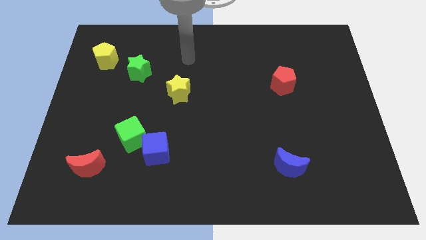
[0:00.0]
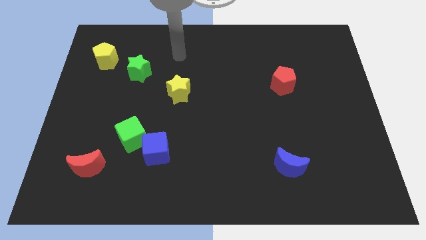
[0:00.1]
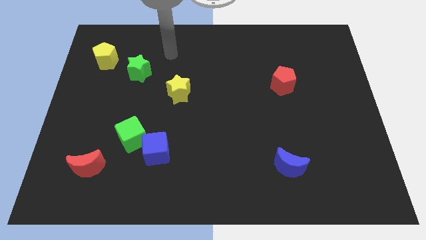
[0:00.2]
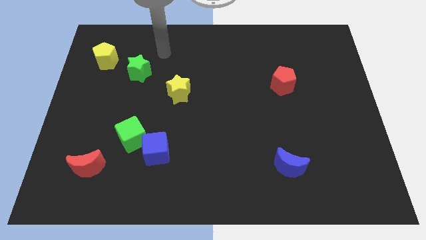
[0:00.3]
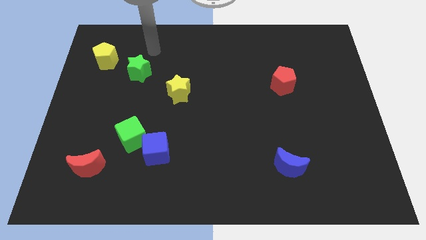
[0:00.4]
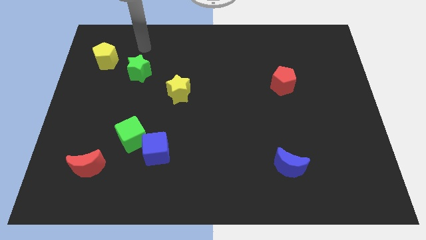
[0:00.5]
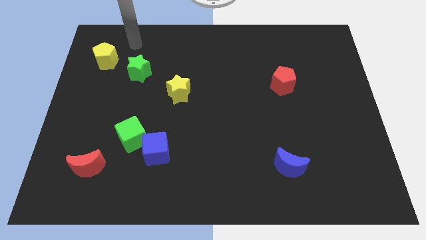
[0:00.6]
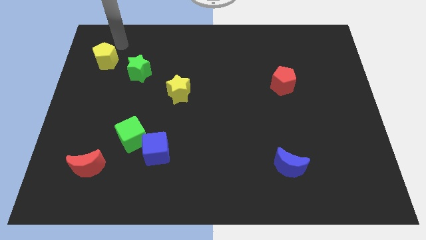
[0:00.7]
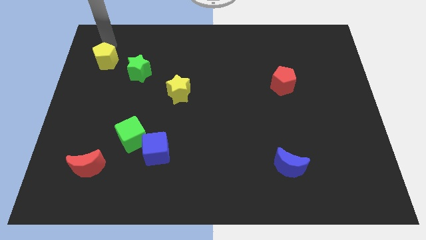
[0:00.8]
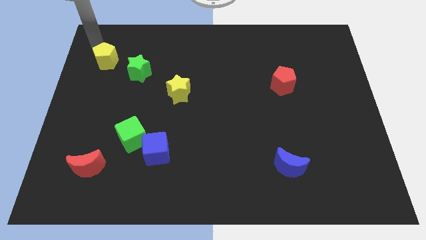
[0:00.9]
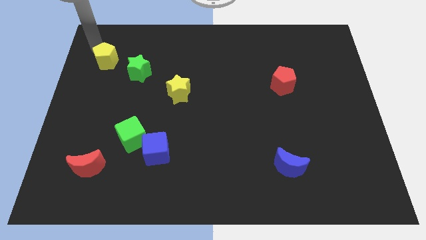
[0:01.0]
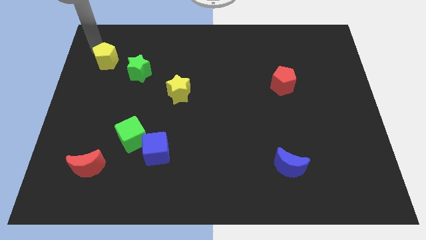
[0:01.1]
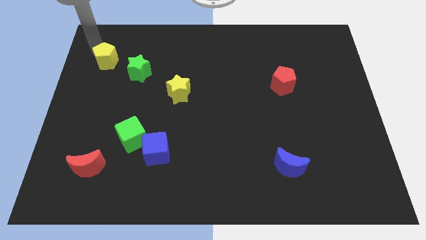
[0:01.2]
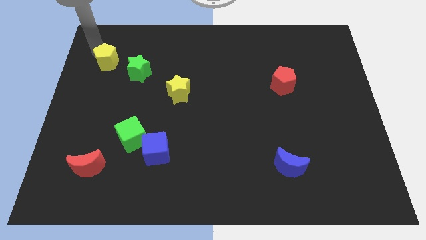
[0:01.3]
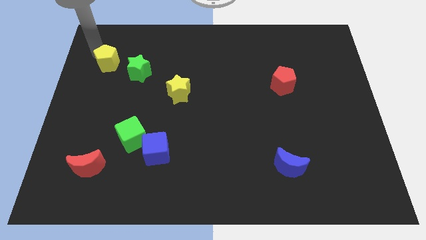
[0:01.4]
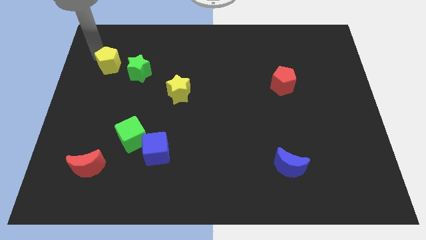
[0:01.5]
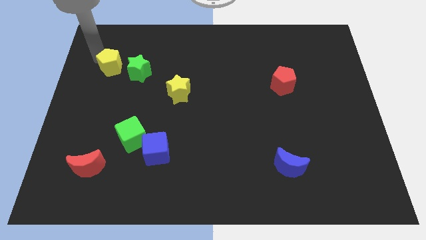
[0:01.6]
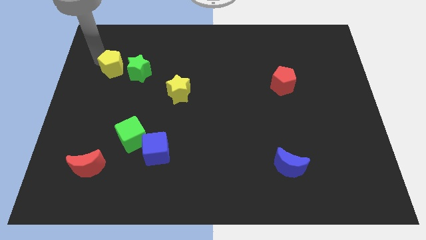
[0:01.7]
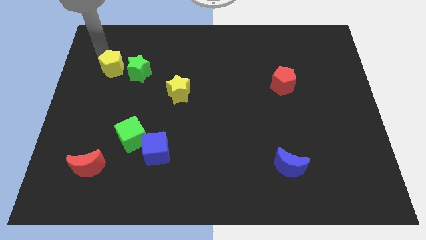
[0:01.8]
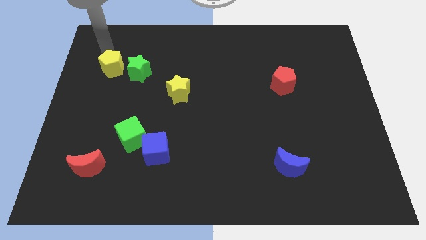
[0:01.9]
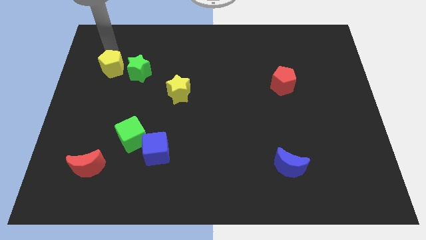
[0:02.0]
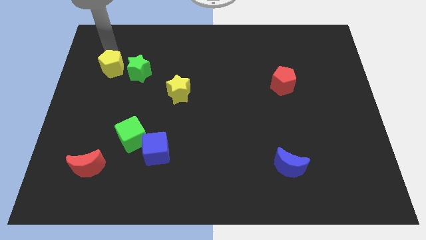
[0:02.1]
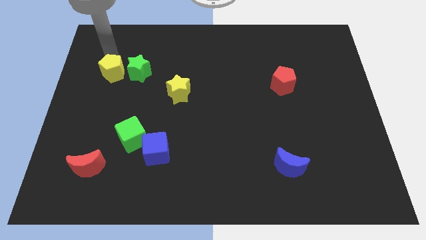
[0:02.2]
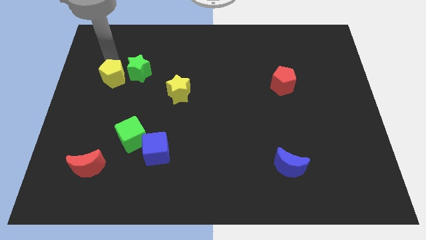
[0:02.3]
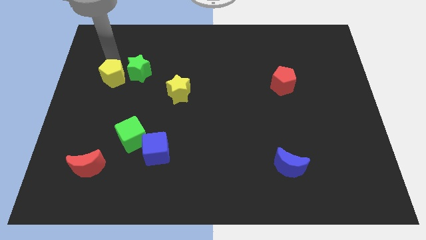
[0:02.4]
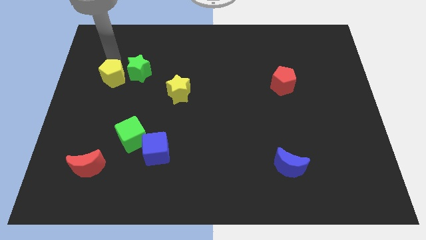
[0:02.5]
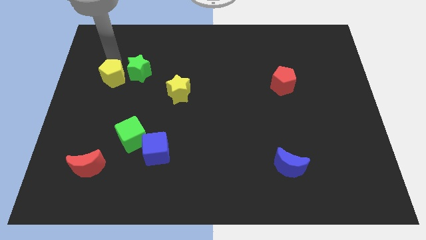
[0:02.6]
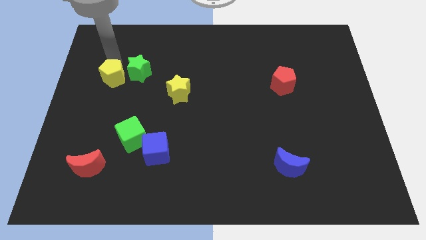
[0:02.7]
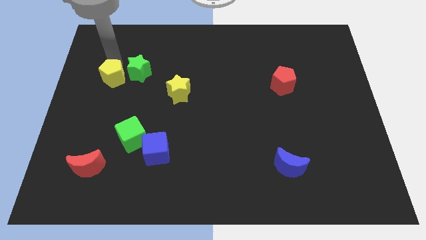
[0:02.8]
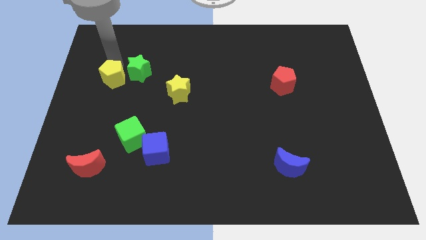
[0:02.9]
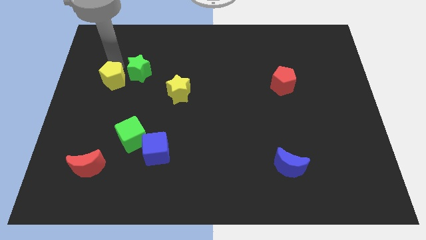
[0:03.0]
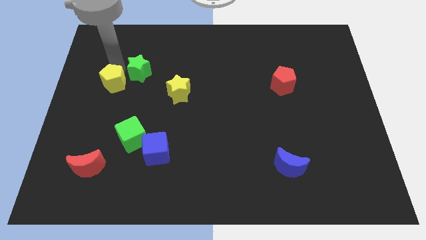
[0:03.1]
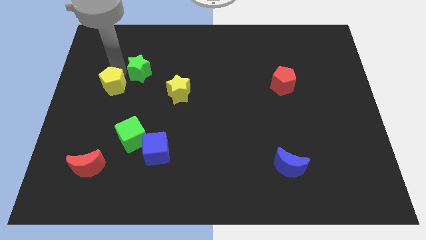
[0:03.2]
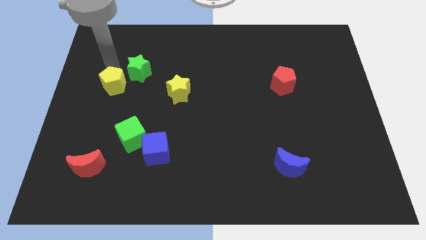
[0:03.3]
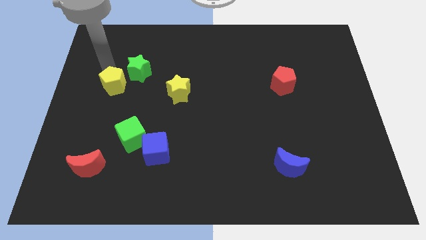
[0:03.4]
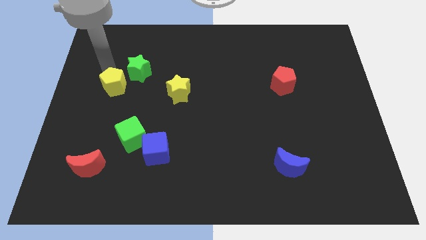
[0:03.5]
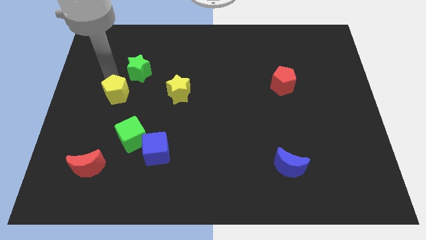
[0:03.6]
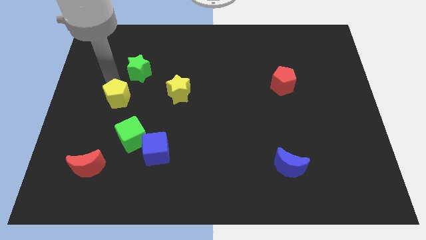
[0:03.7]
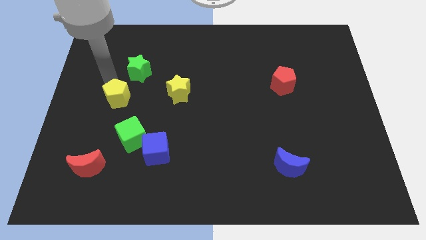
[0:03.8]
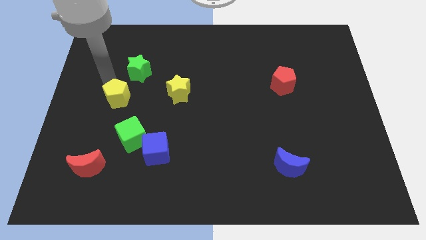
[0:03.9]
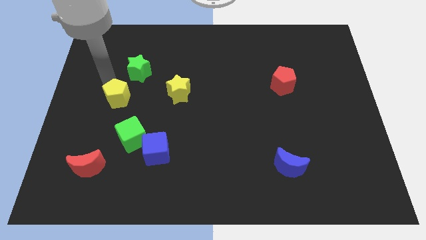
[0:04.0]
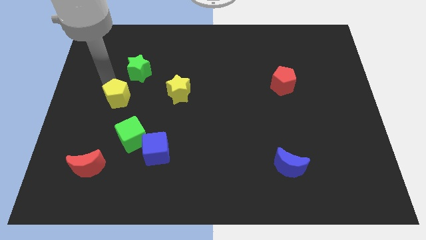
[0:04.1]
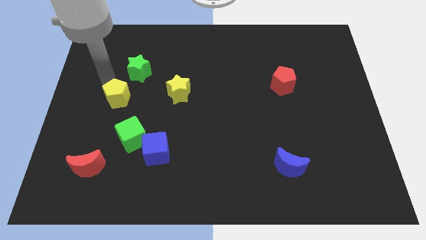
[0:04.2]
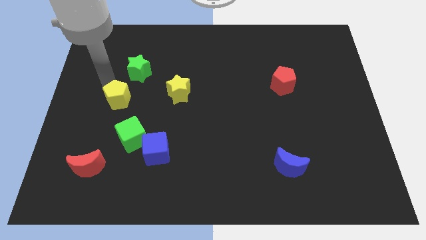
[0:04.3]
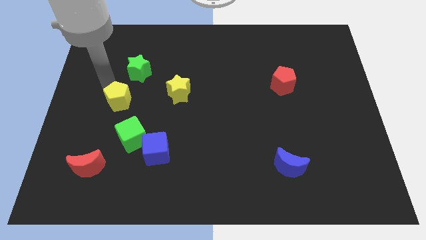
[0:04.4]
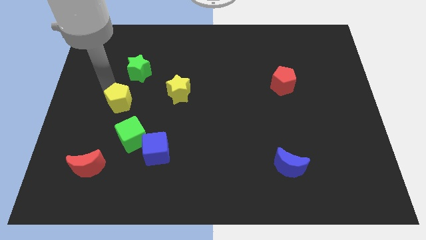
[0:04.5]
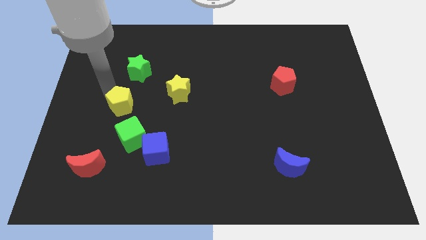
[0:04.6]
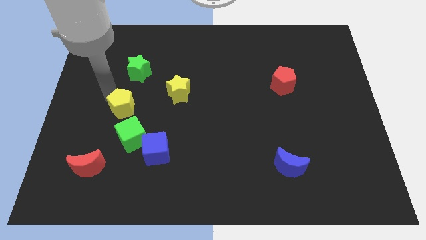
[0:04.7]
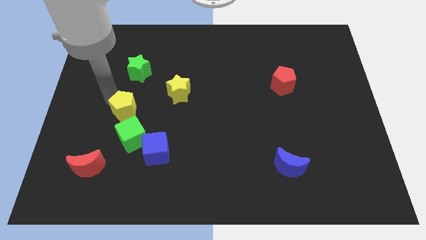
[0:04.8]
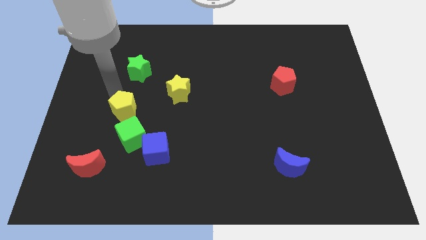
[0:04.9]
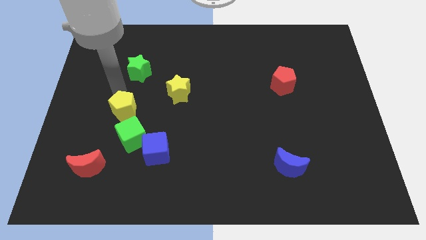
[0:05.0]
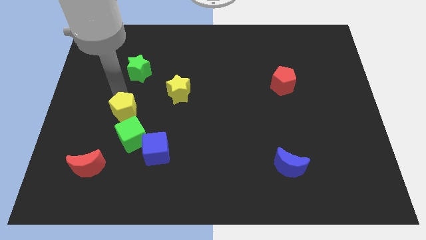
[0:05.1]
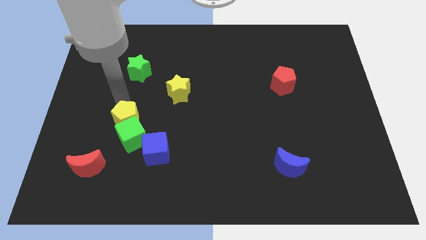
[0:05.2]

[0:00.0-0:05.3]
put the yellow pentagon next to the green cube

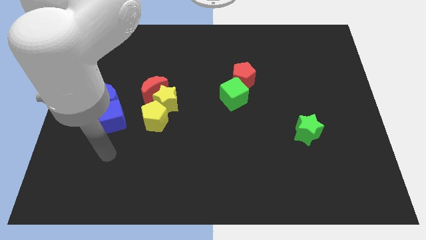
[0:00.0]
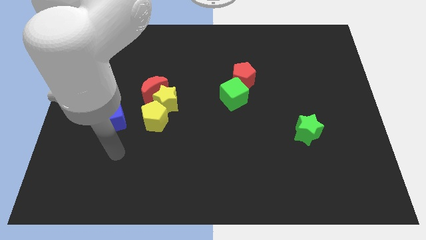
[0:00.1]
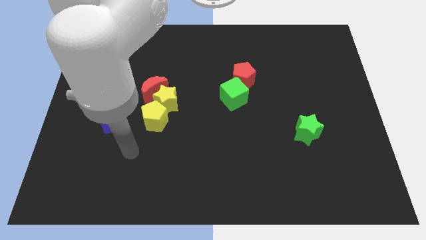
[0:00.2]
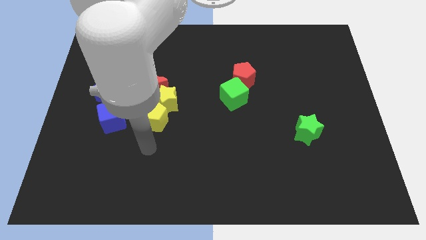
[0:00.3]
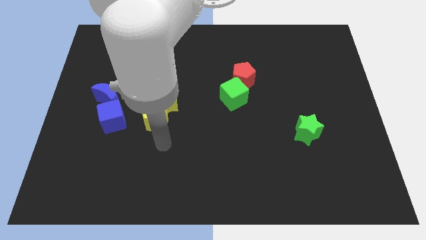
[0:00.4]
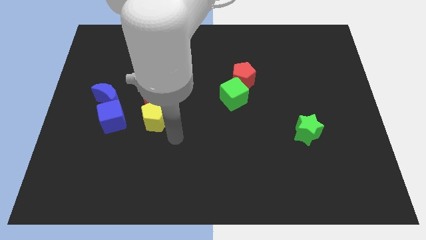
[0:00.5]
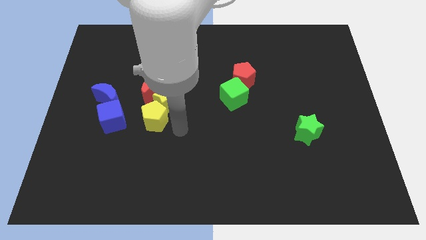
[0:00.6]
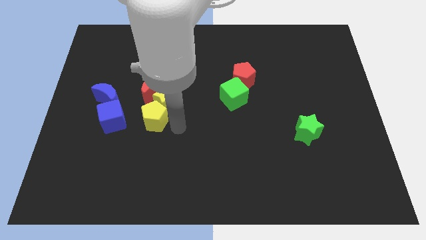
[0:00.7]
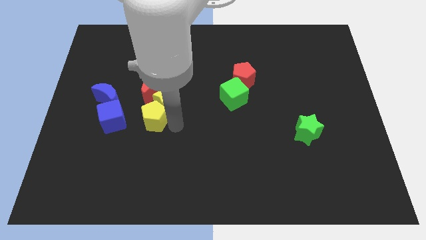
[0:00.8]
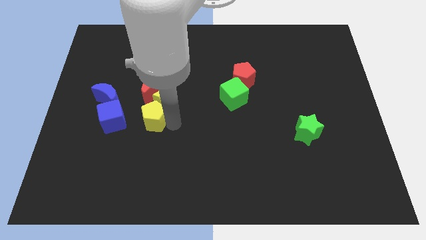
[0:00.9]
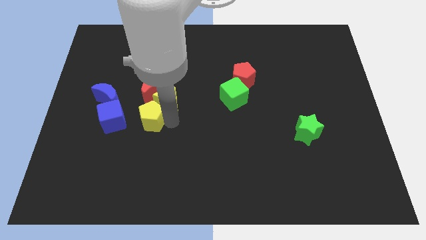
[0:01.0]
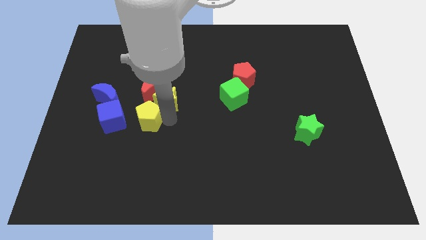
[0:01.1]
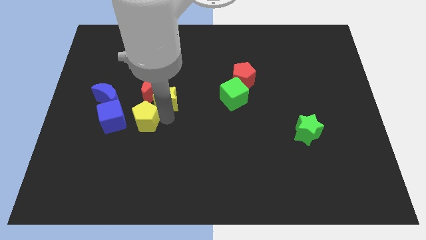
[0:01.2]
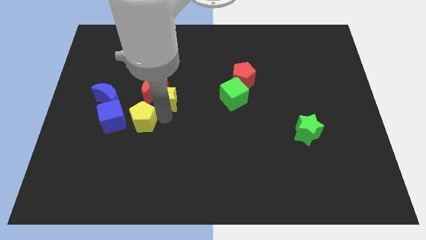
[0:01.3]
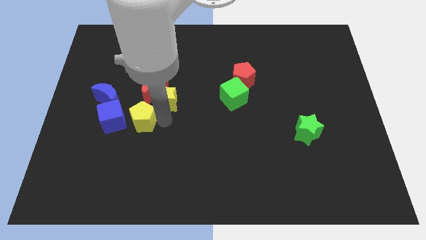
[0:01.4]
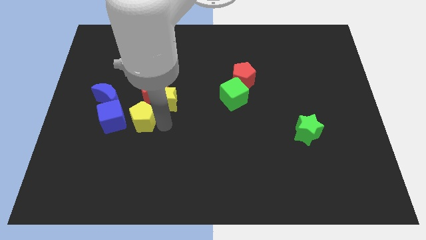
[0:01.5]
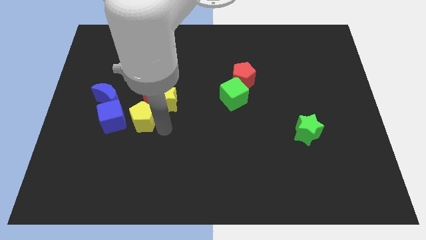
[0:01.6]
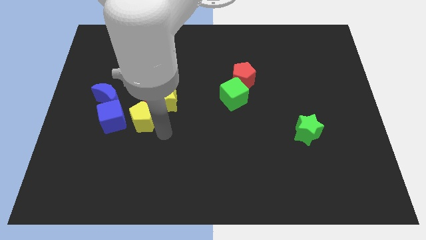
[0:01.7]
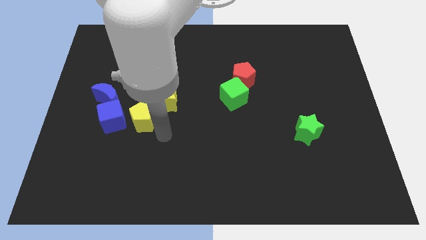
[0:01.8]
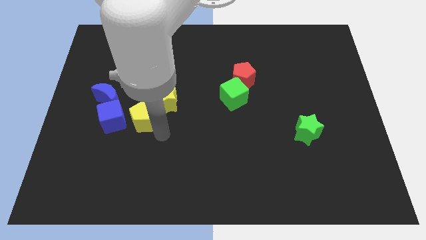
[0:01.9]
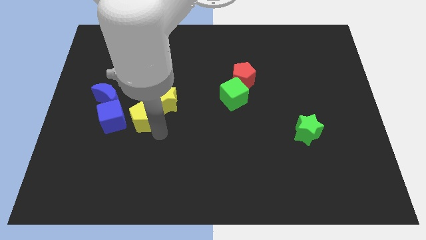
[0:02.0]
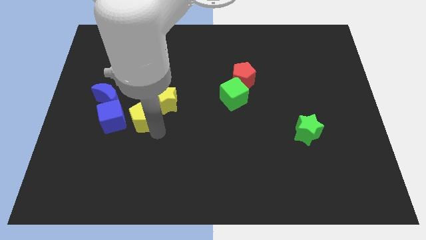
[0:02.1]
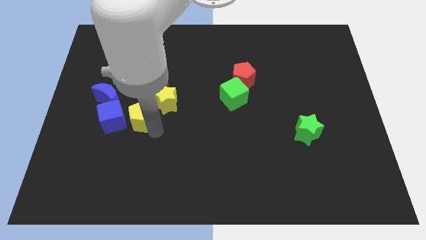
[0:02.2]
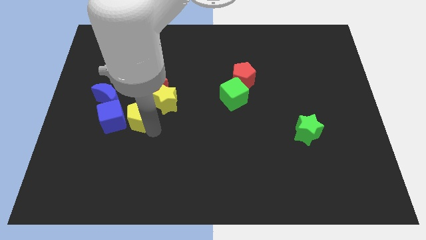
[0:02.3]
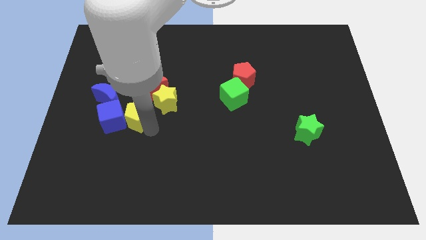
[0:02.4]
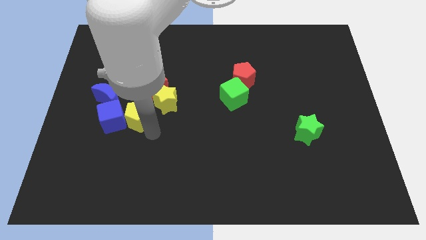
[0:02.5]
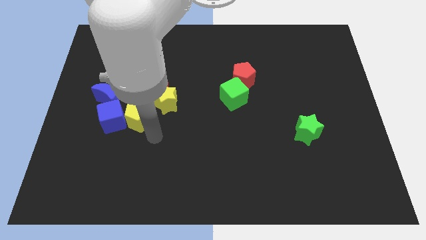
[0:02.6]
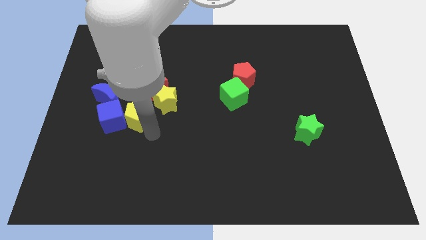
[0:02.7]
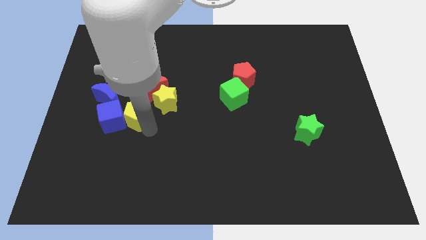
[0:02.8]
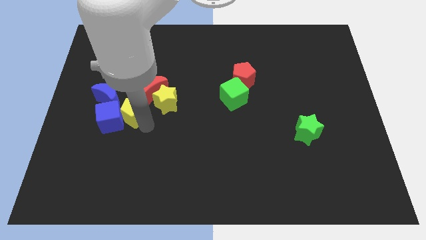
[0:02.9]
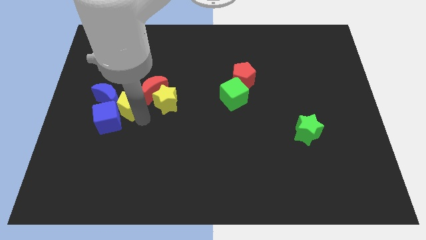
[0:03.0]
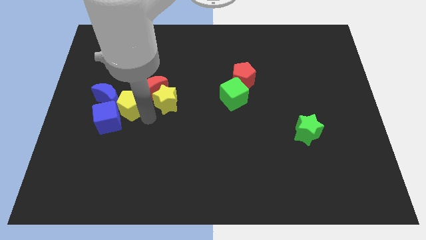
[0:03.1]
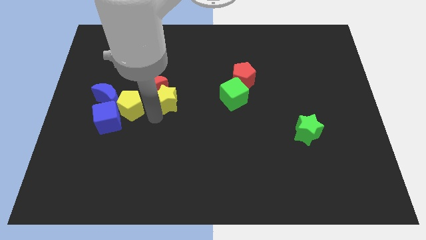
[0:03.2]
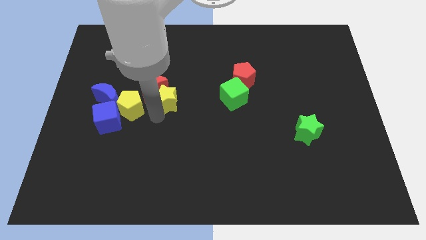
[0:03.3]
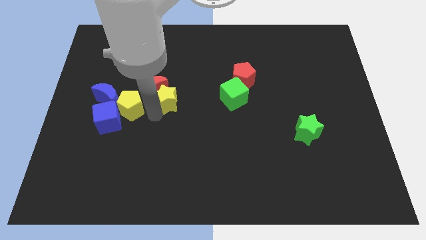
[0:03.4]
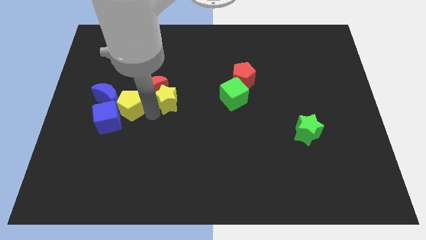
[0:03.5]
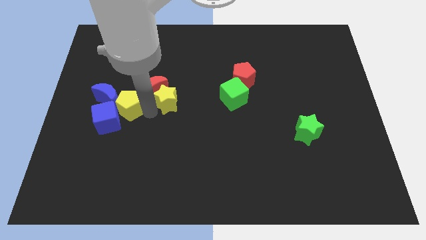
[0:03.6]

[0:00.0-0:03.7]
slide the yellow pentagon next to the blue moon
